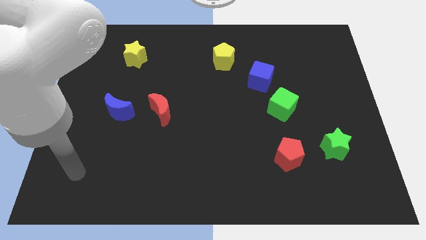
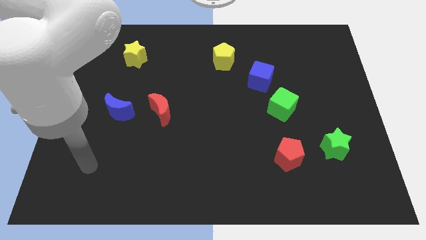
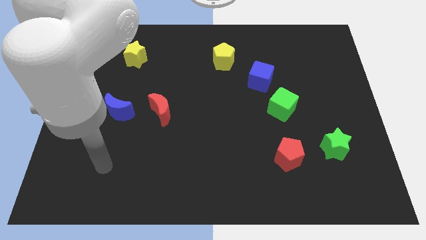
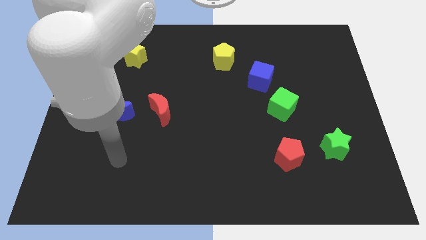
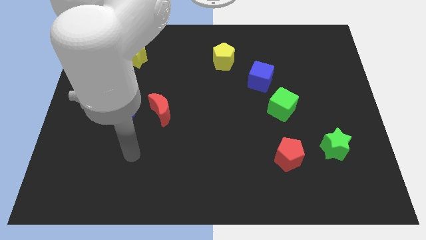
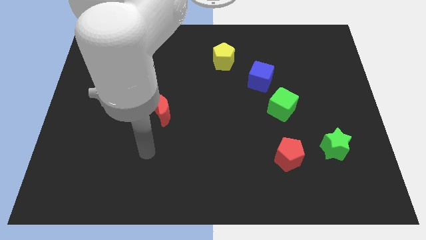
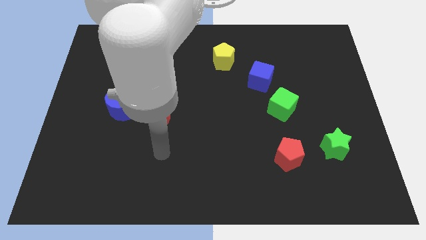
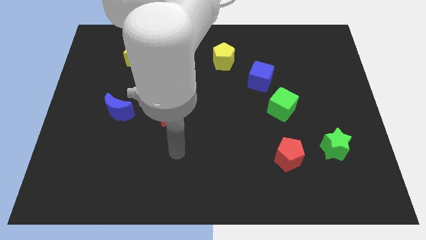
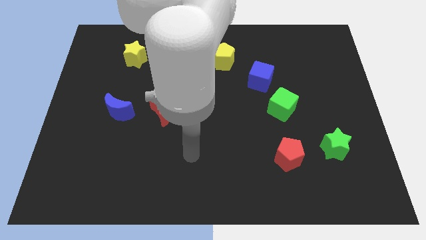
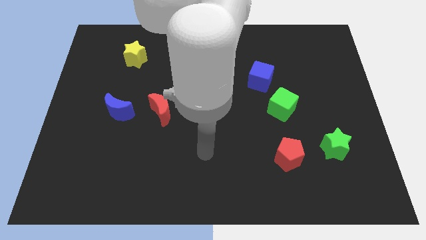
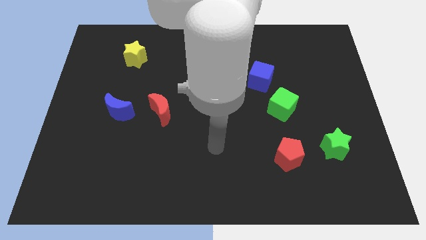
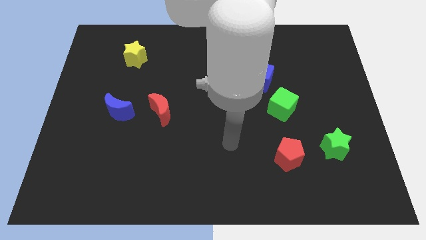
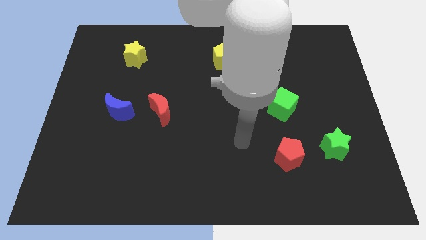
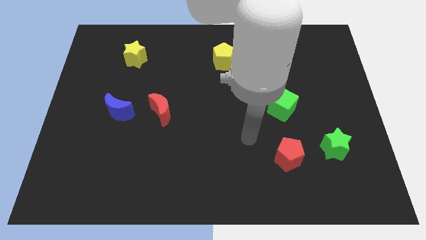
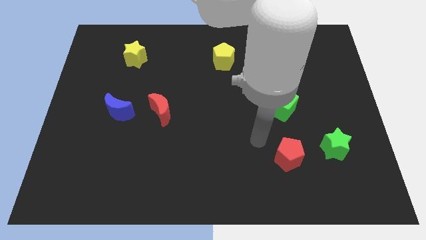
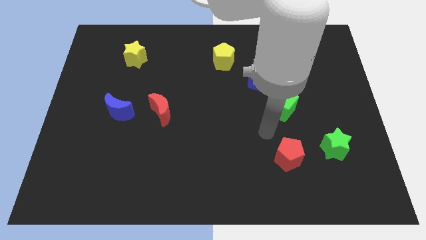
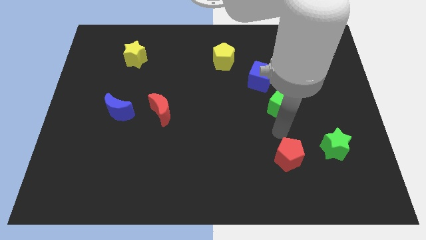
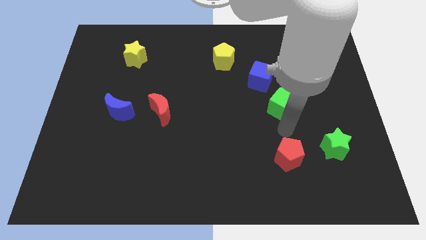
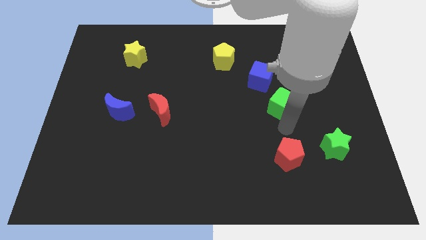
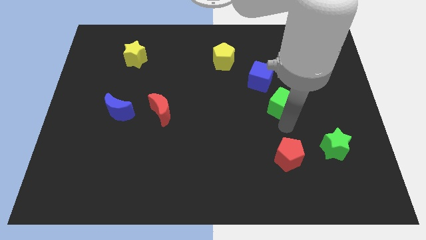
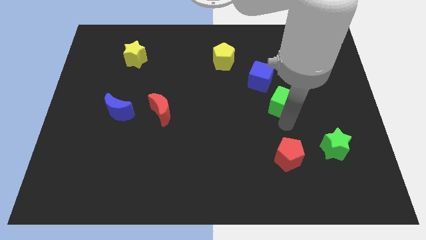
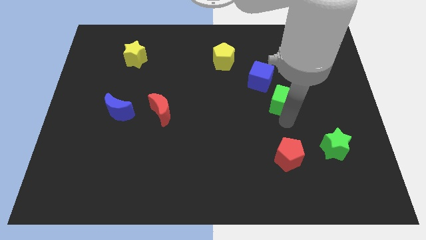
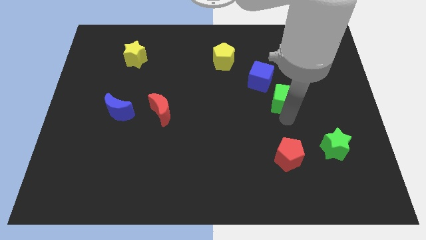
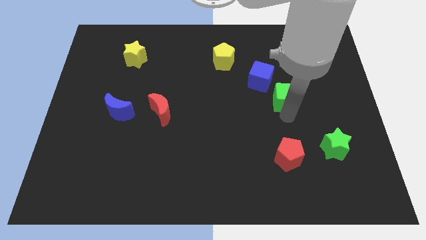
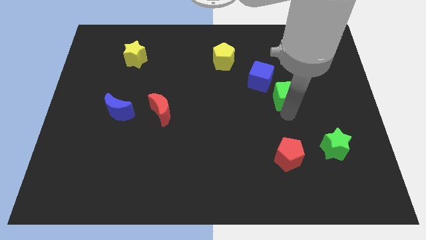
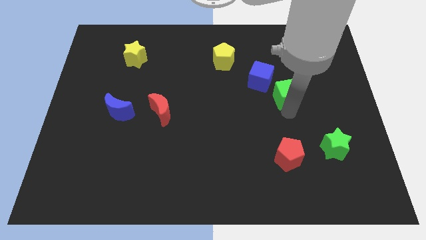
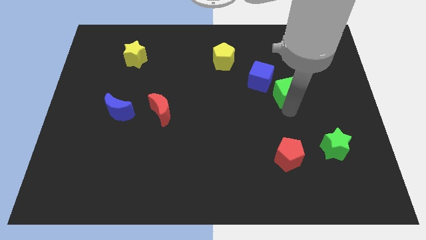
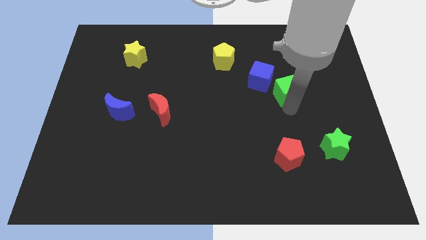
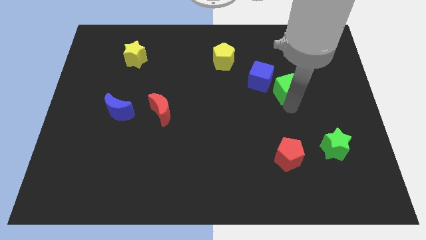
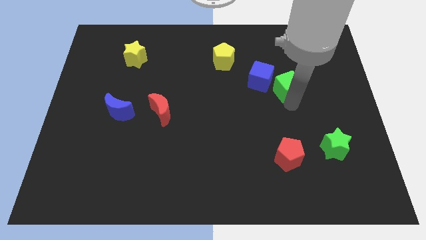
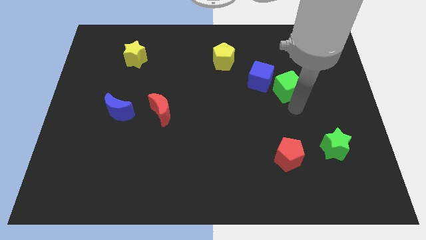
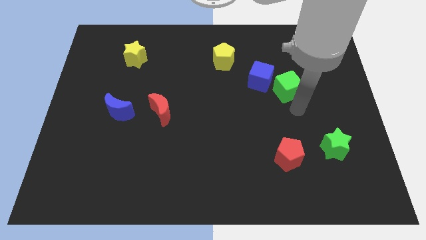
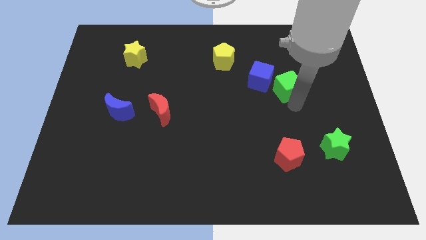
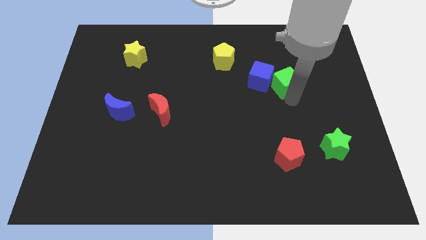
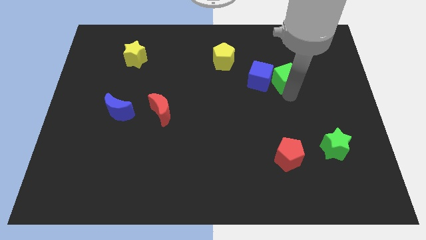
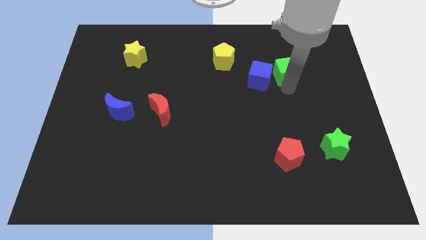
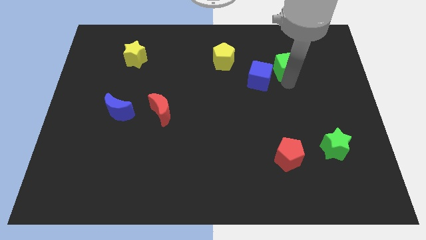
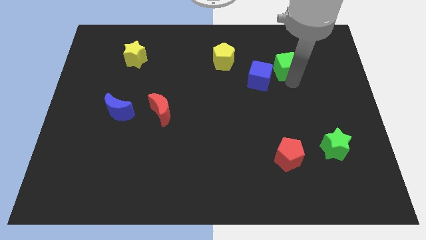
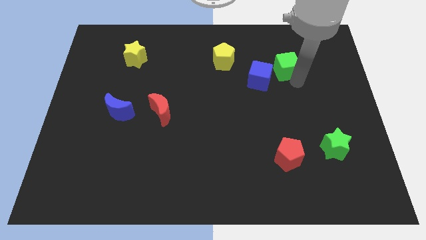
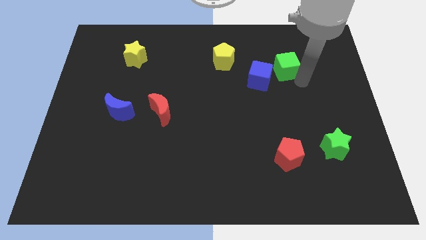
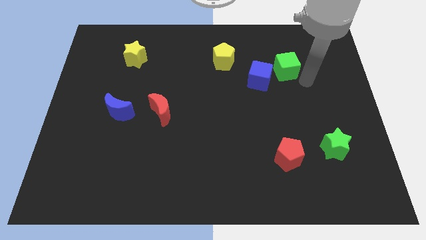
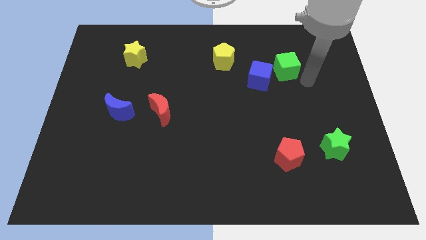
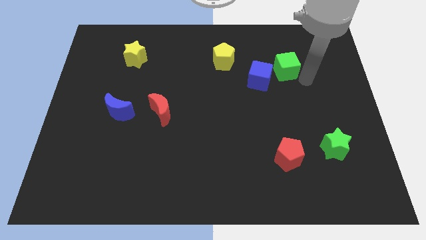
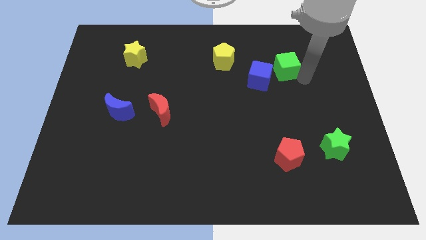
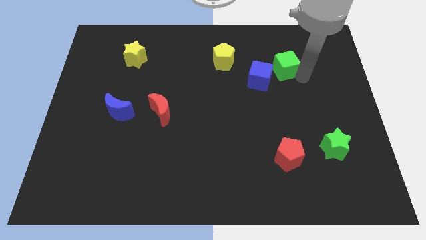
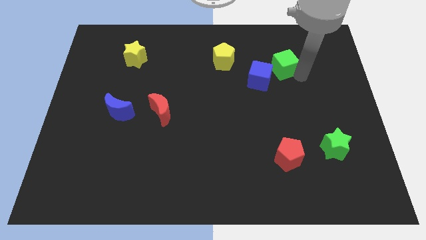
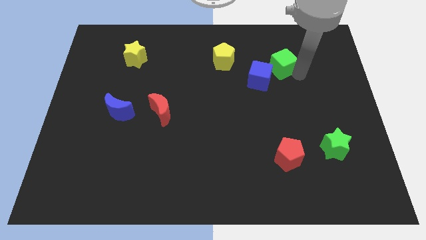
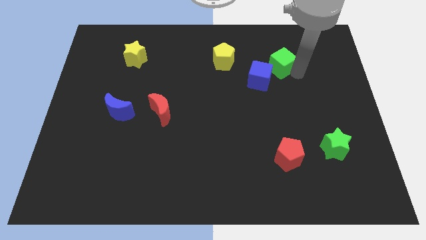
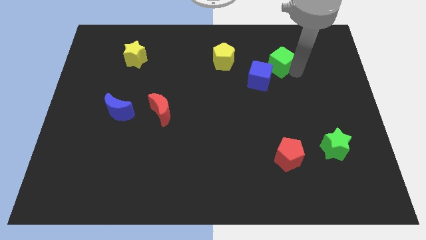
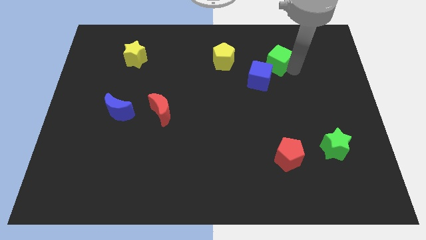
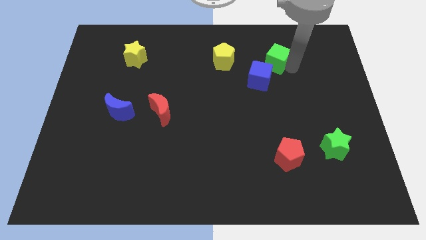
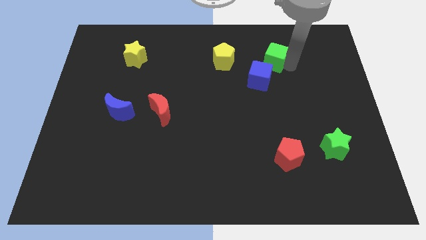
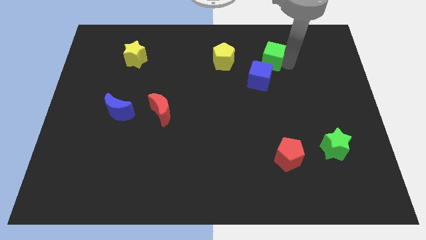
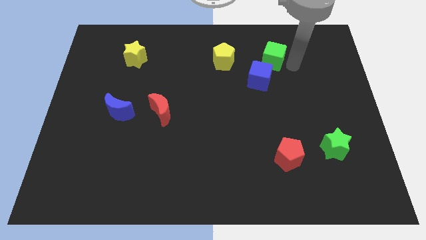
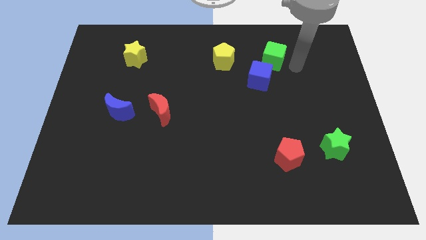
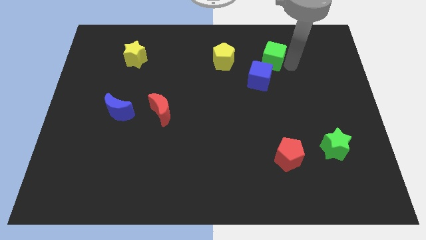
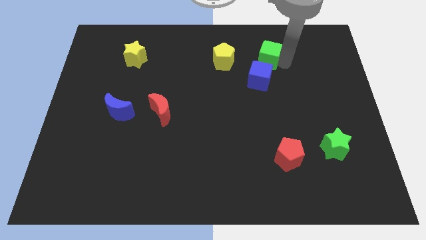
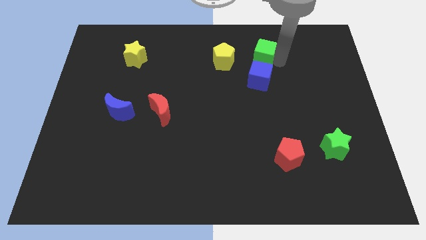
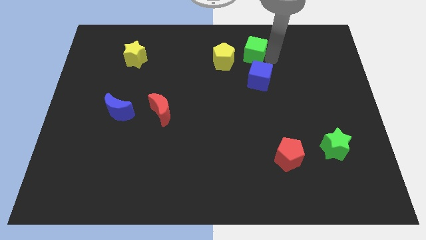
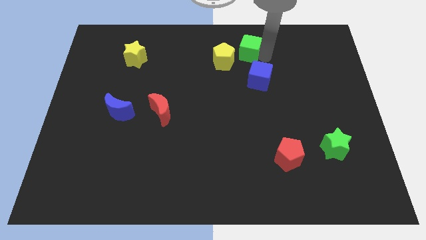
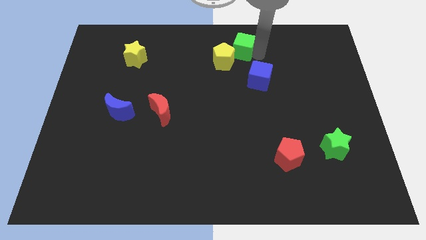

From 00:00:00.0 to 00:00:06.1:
move the green cube to the top side
